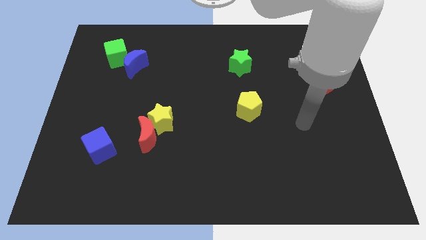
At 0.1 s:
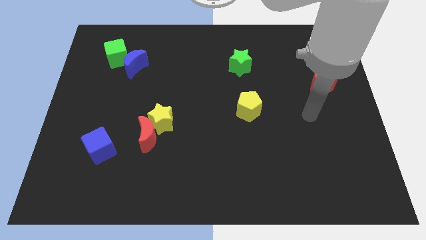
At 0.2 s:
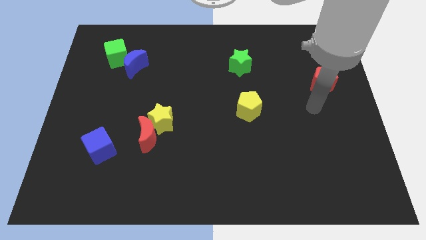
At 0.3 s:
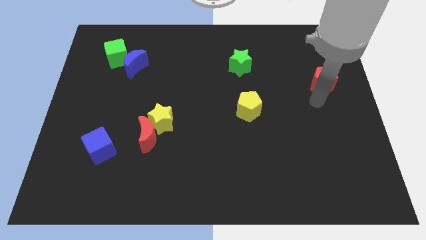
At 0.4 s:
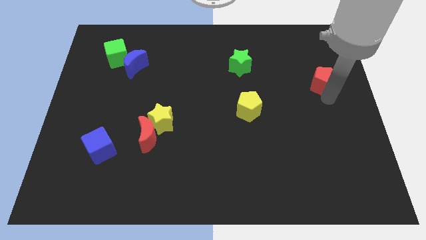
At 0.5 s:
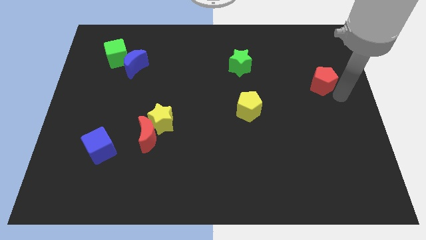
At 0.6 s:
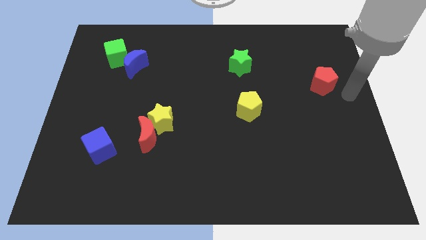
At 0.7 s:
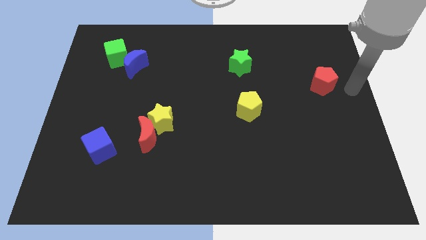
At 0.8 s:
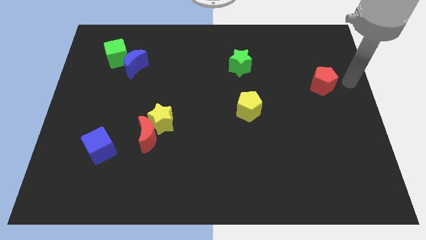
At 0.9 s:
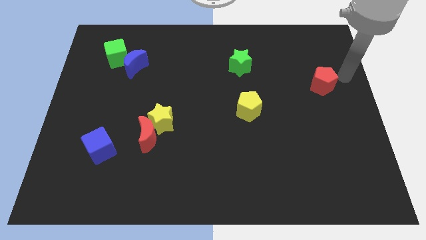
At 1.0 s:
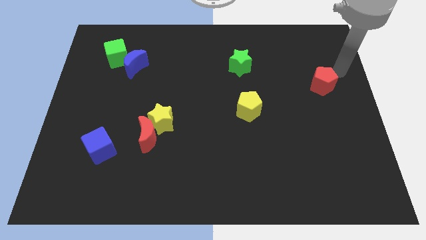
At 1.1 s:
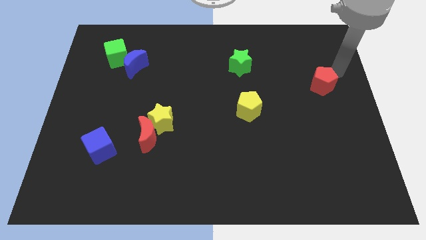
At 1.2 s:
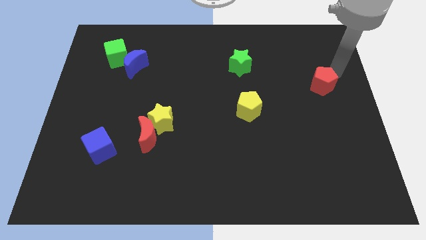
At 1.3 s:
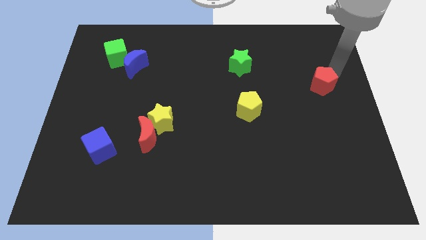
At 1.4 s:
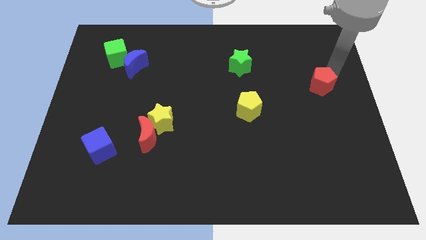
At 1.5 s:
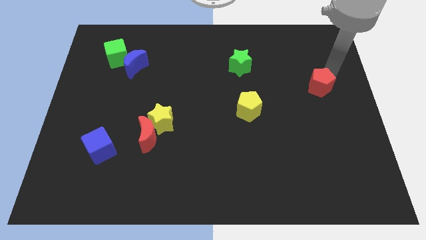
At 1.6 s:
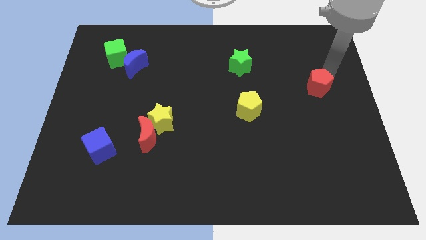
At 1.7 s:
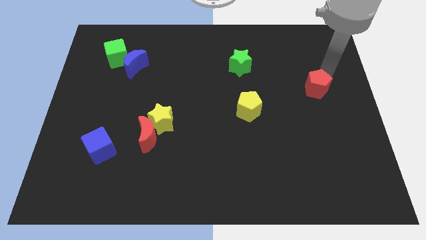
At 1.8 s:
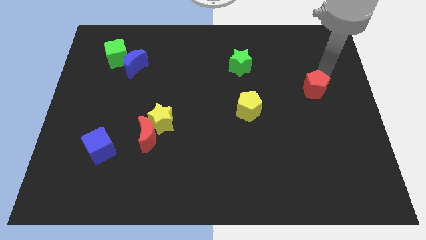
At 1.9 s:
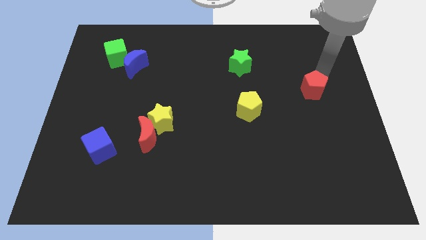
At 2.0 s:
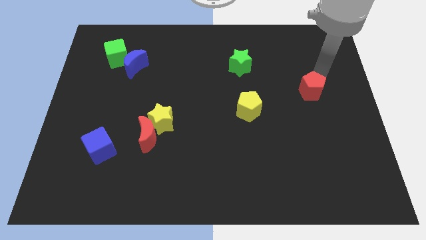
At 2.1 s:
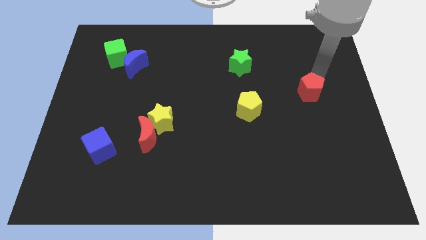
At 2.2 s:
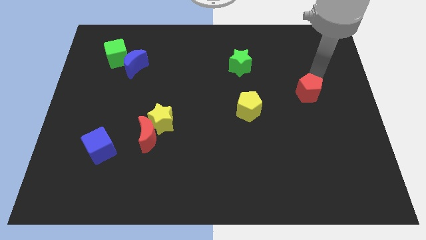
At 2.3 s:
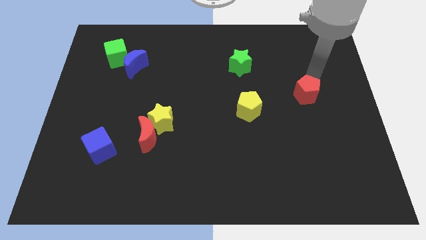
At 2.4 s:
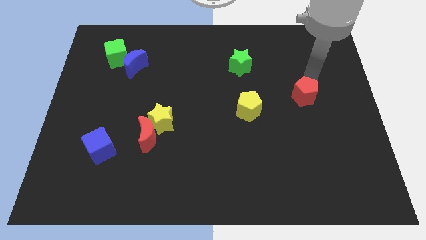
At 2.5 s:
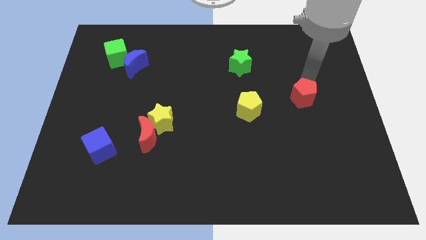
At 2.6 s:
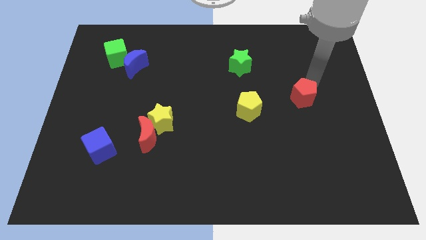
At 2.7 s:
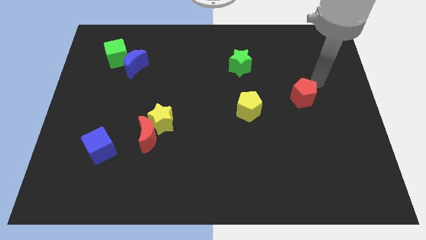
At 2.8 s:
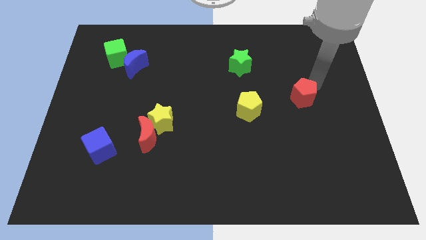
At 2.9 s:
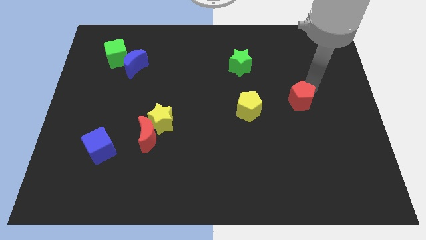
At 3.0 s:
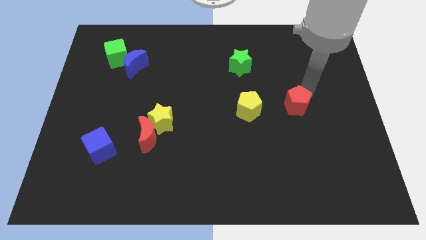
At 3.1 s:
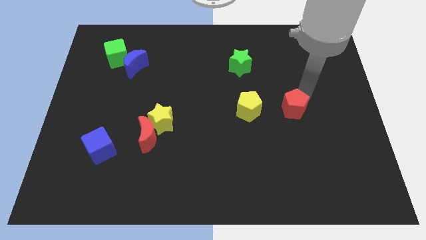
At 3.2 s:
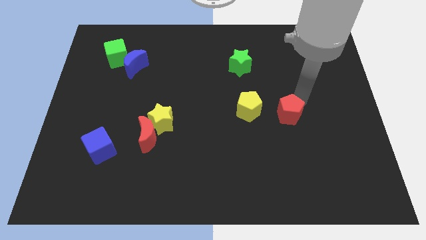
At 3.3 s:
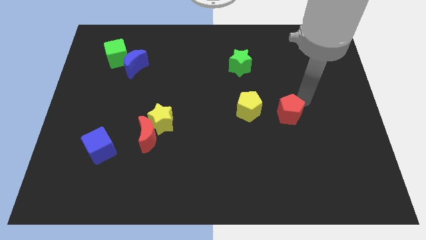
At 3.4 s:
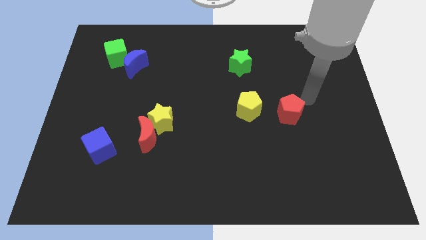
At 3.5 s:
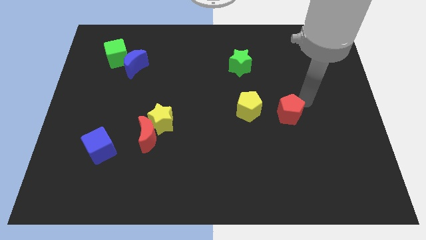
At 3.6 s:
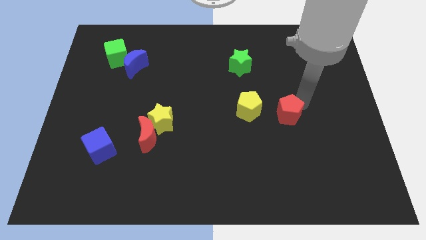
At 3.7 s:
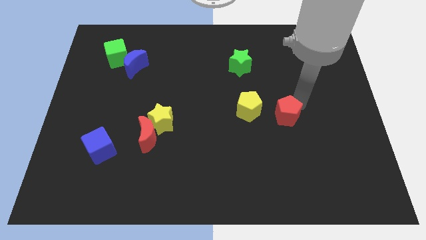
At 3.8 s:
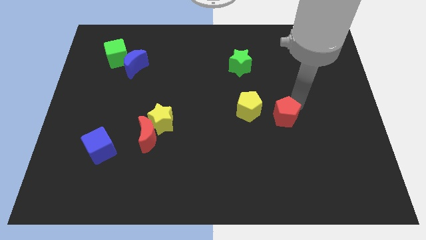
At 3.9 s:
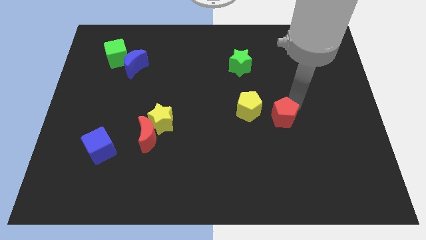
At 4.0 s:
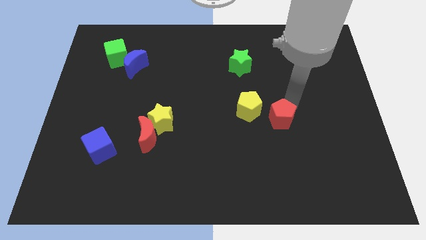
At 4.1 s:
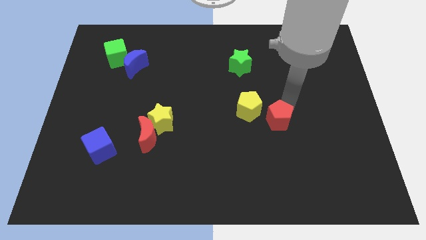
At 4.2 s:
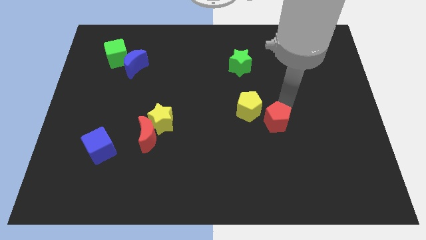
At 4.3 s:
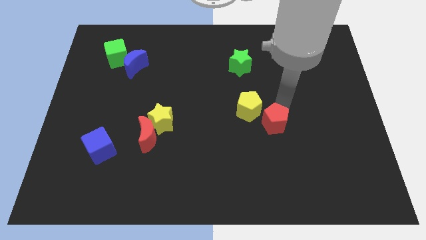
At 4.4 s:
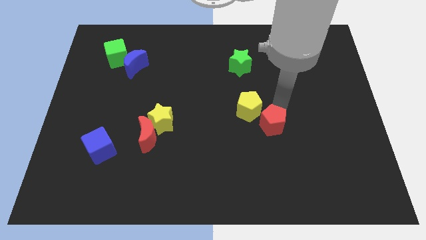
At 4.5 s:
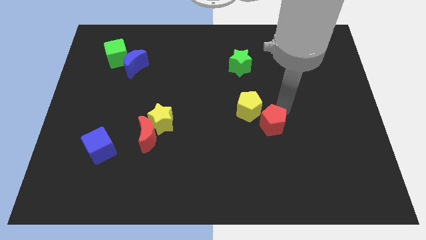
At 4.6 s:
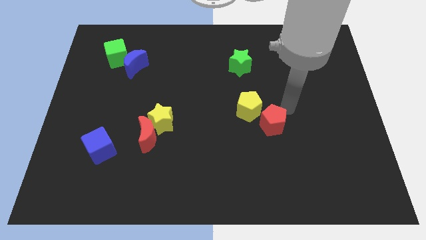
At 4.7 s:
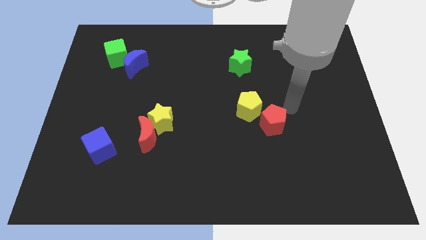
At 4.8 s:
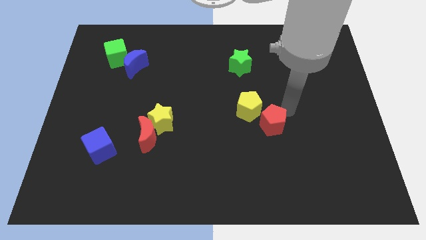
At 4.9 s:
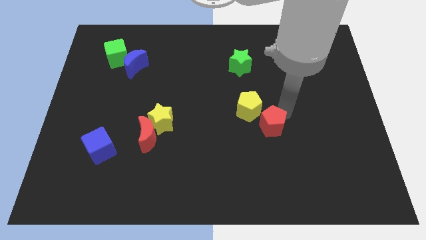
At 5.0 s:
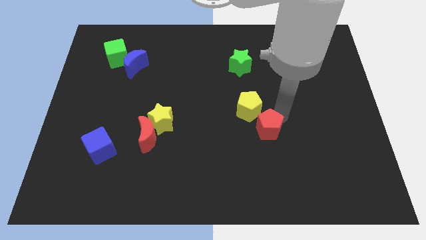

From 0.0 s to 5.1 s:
push the red pentagon downwards and then left

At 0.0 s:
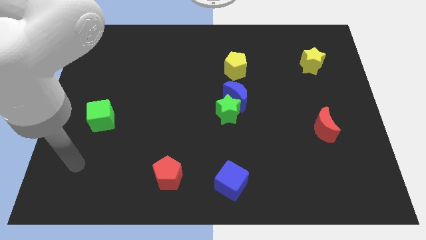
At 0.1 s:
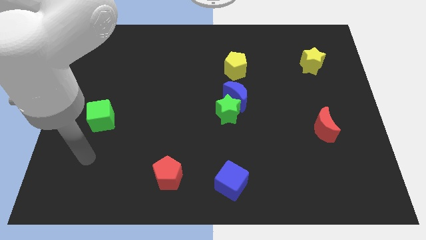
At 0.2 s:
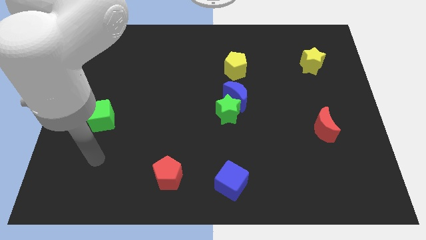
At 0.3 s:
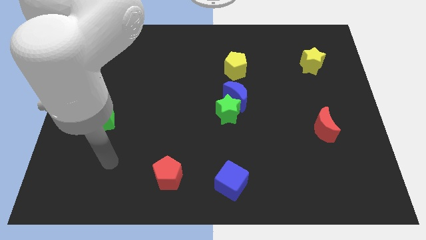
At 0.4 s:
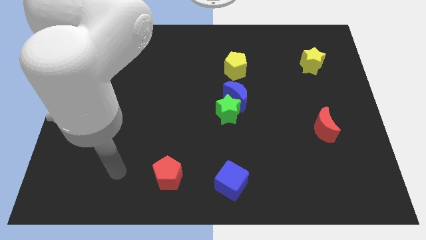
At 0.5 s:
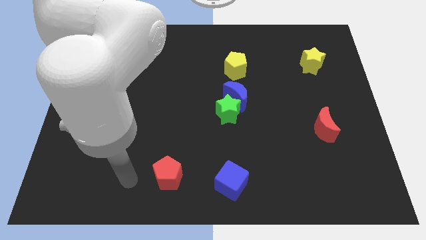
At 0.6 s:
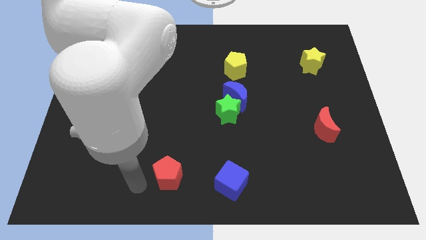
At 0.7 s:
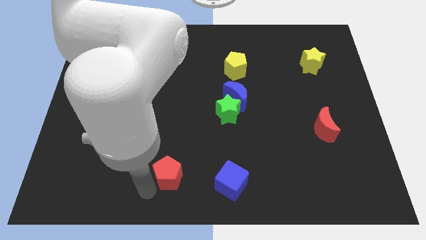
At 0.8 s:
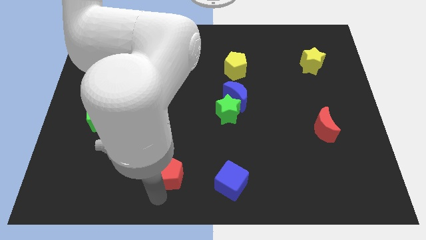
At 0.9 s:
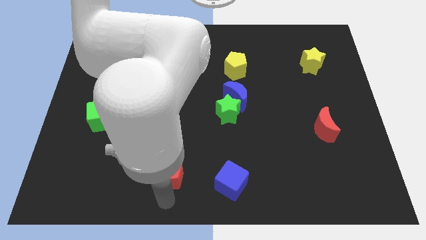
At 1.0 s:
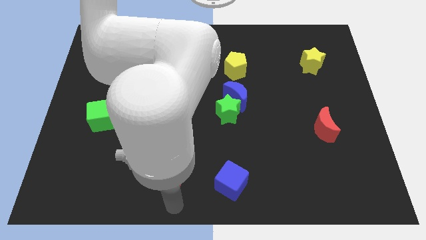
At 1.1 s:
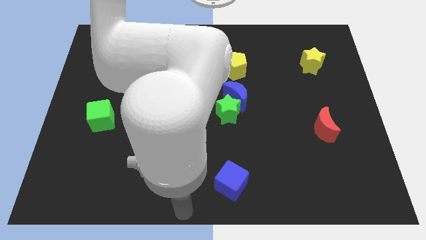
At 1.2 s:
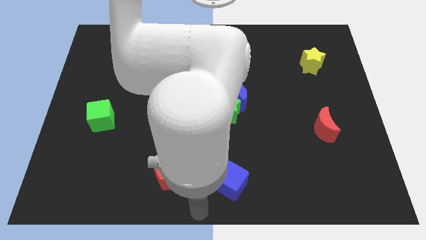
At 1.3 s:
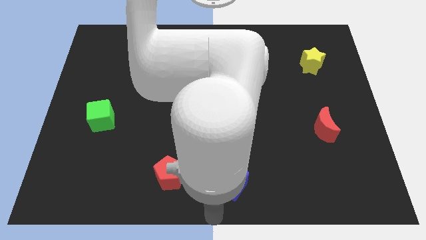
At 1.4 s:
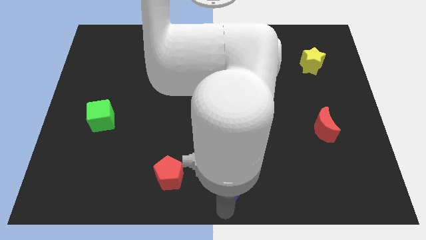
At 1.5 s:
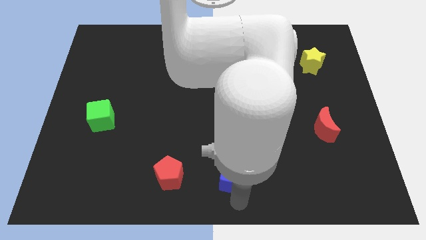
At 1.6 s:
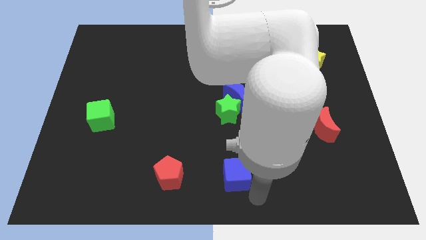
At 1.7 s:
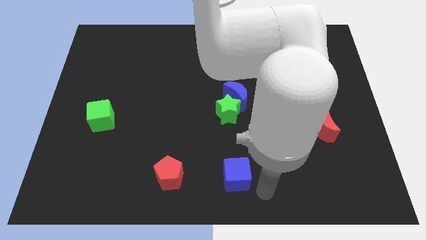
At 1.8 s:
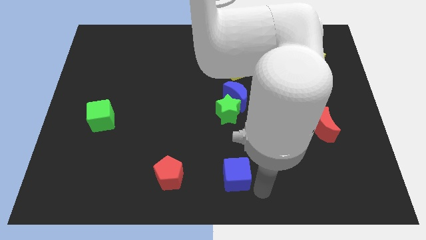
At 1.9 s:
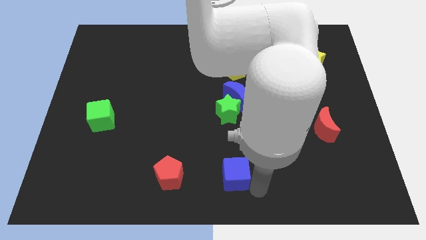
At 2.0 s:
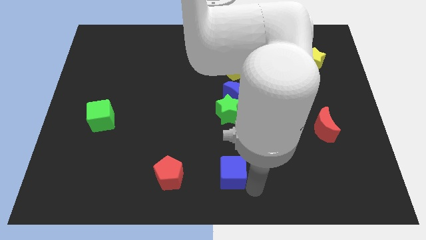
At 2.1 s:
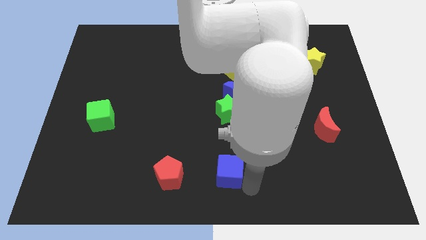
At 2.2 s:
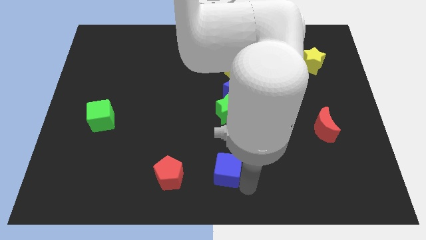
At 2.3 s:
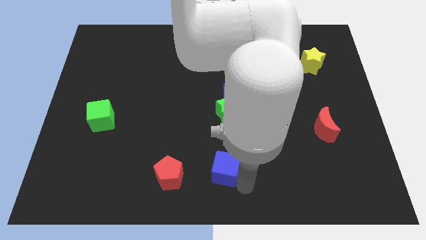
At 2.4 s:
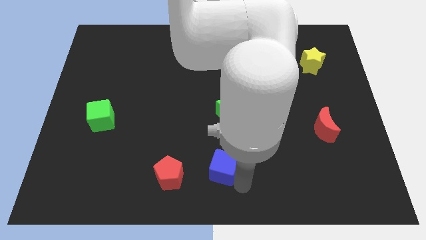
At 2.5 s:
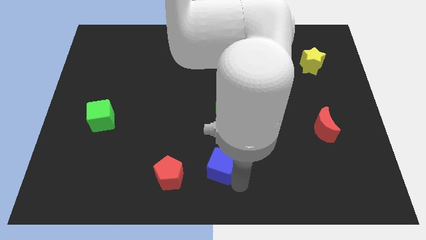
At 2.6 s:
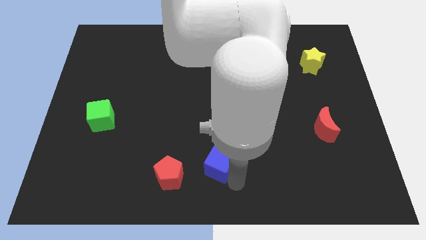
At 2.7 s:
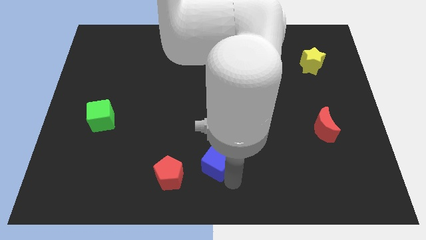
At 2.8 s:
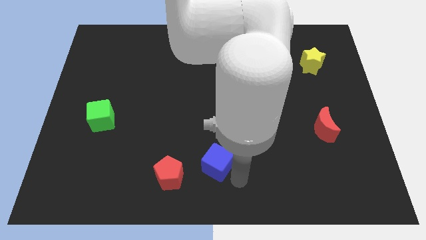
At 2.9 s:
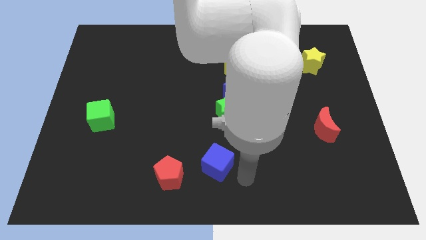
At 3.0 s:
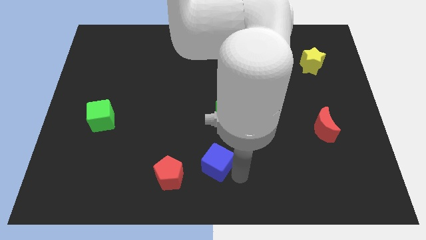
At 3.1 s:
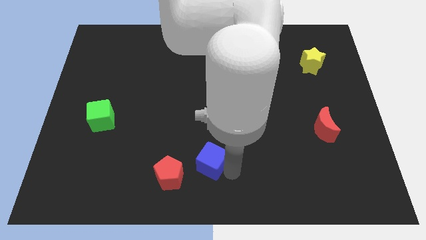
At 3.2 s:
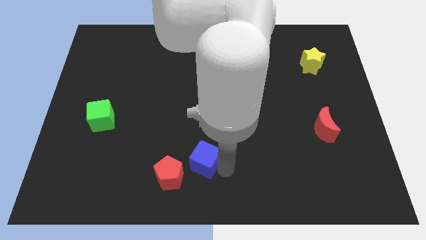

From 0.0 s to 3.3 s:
slide the blue cube upwards and then left a little
